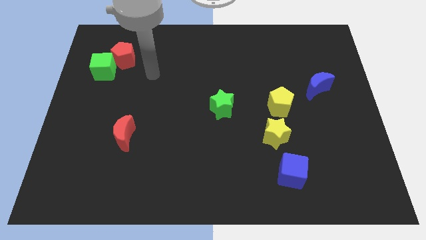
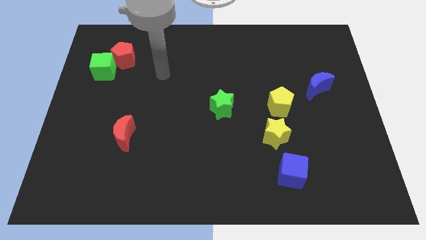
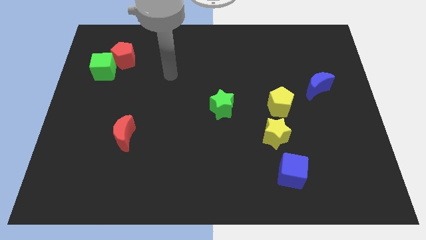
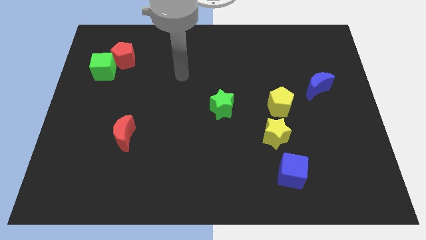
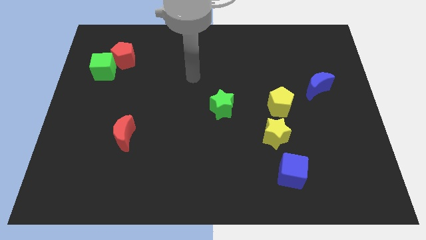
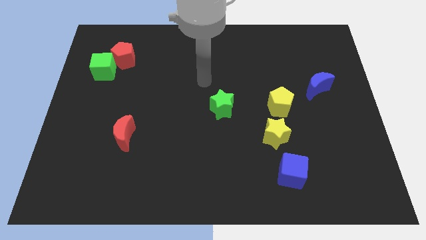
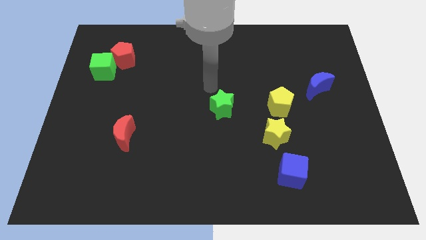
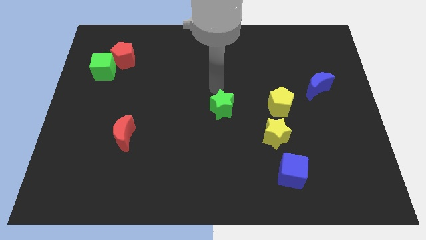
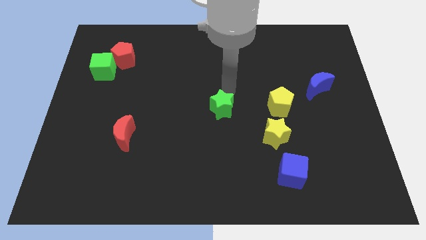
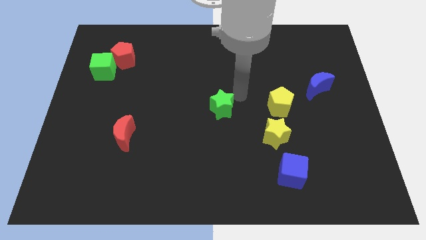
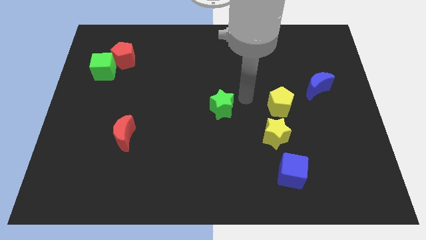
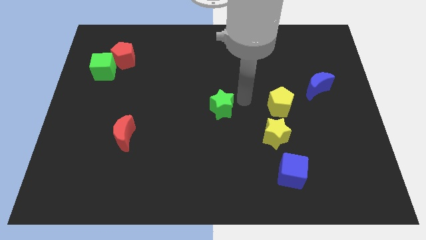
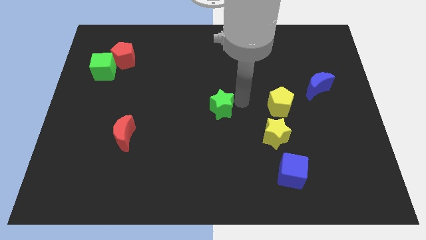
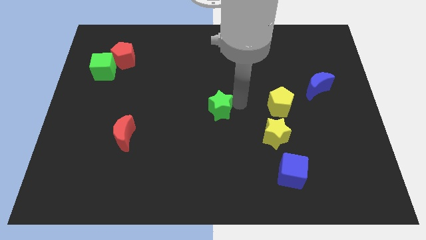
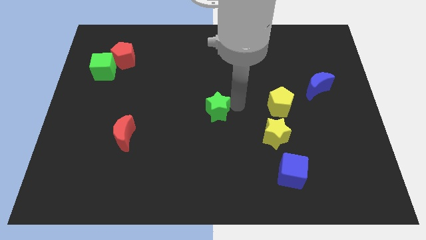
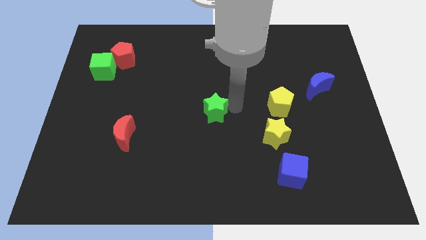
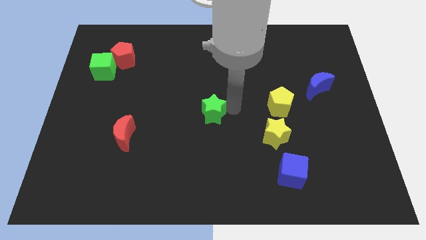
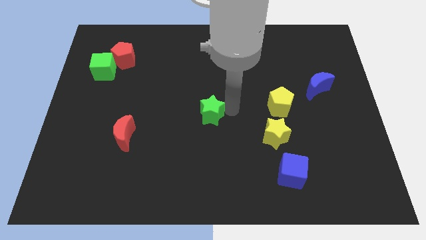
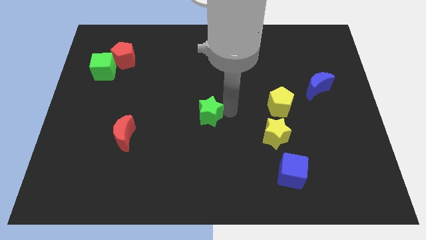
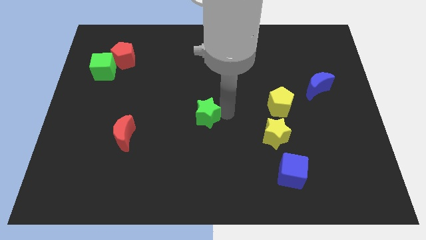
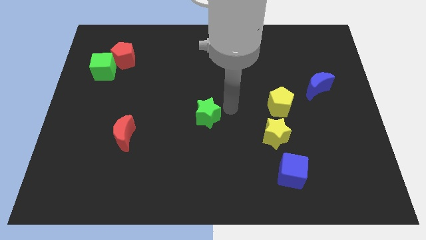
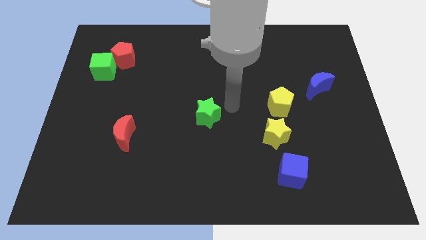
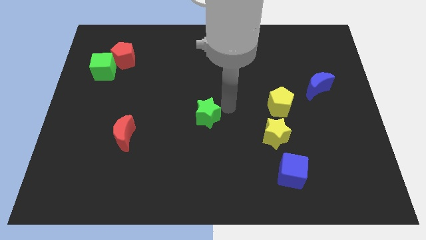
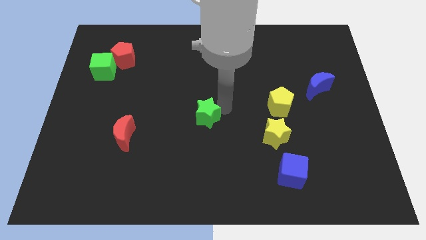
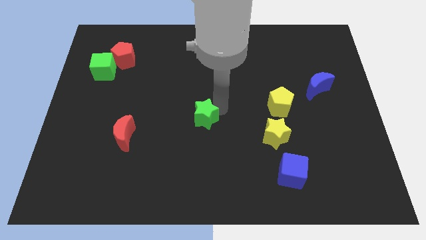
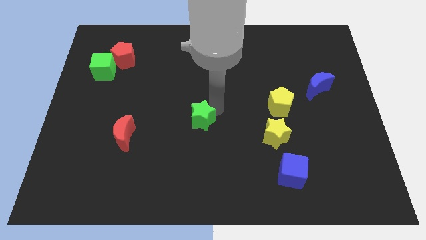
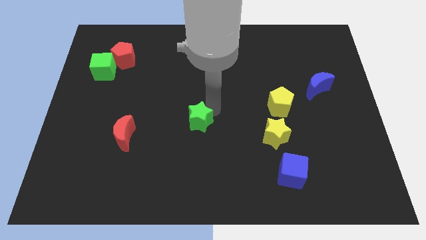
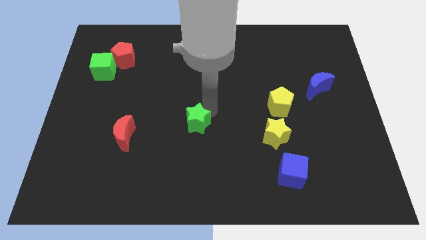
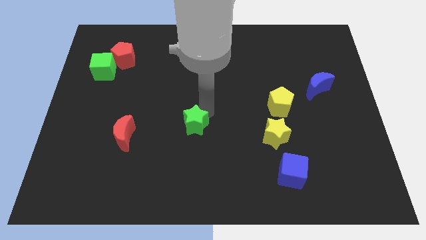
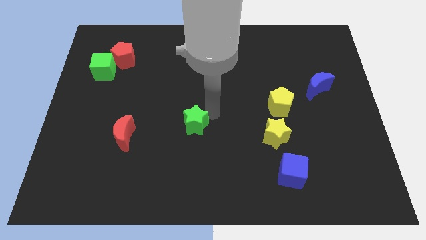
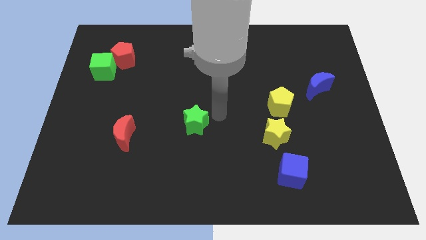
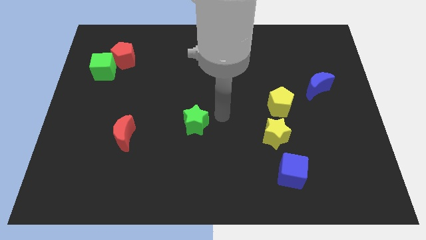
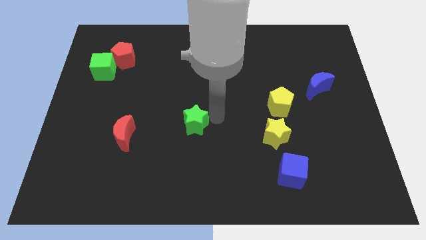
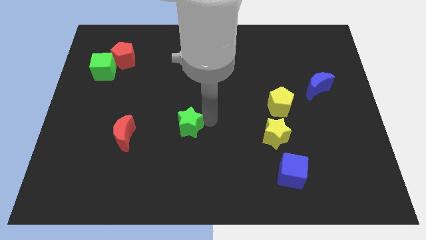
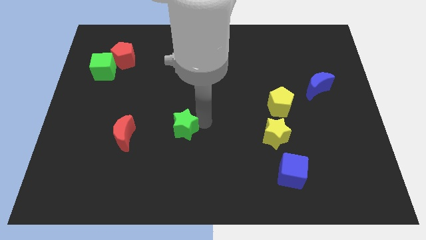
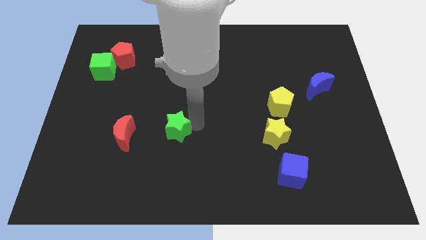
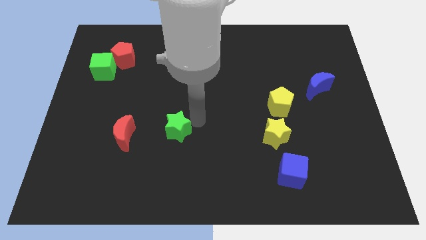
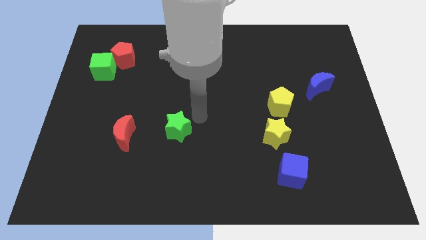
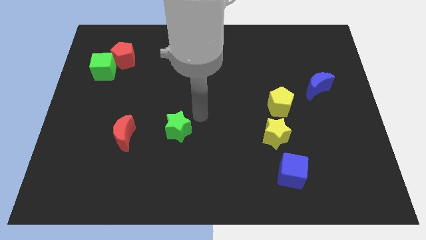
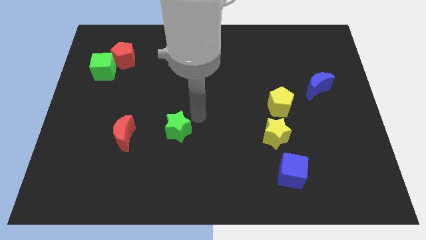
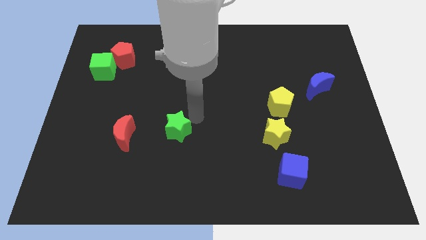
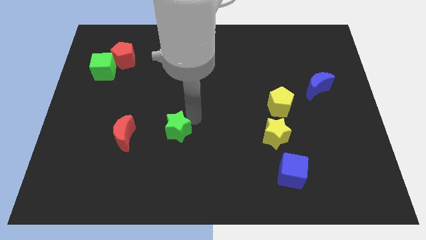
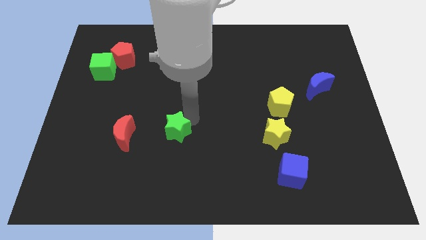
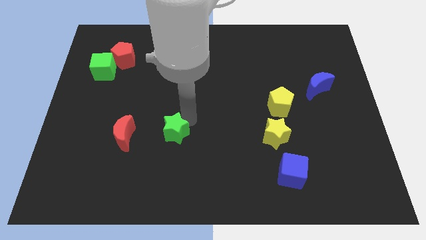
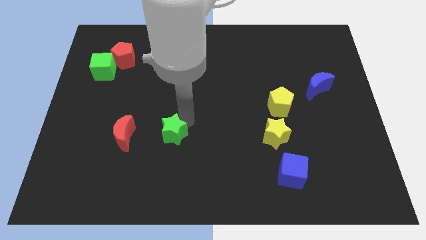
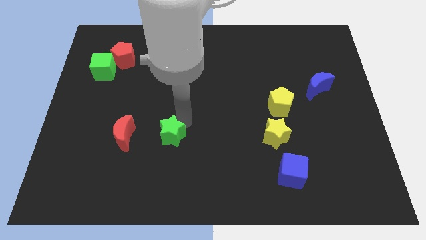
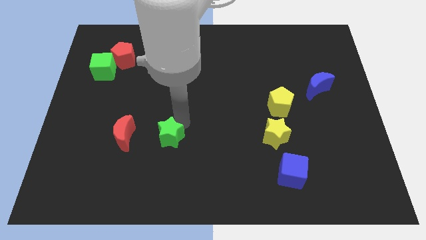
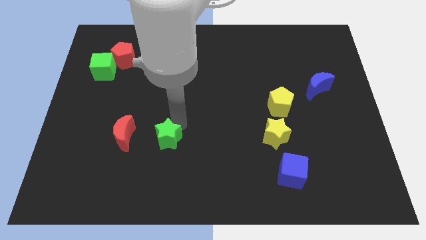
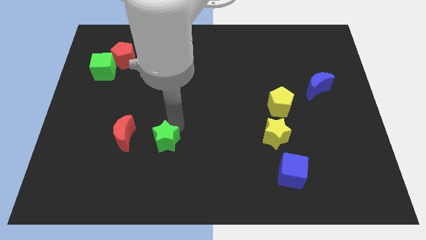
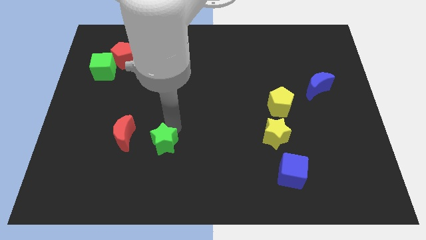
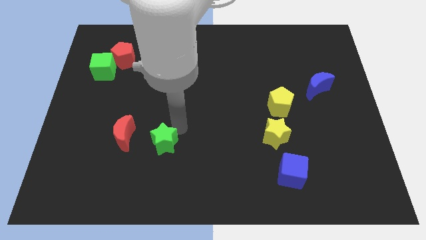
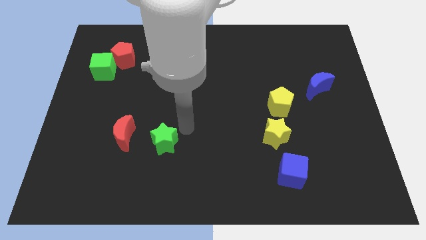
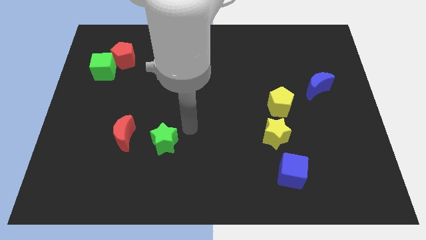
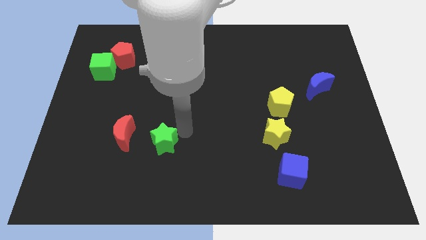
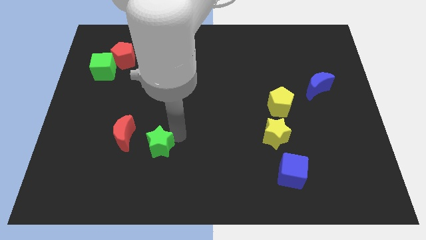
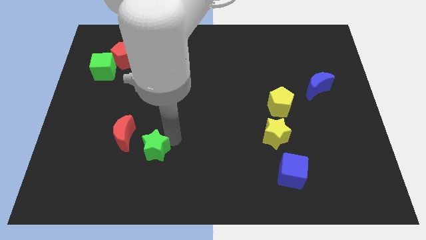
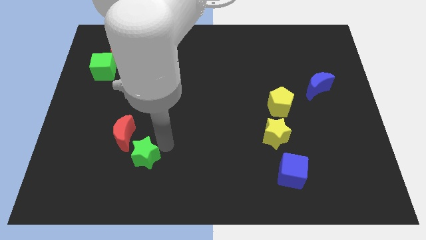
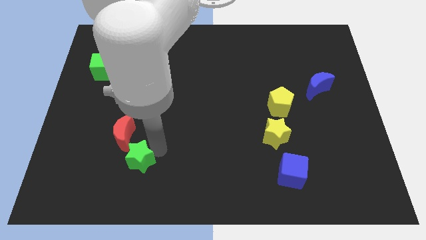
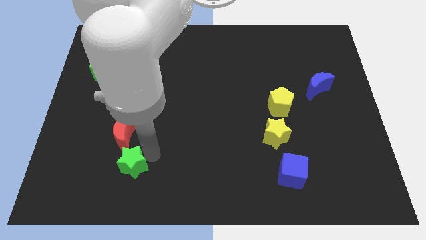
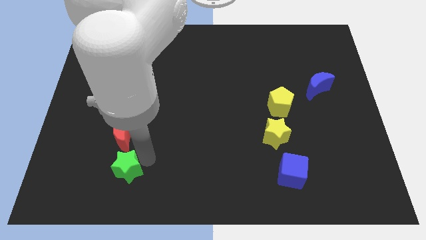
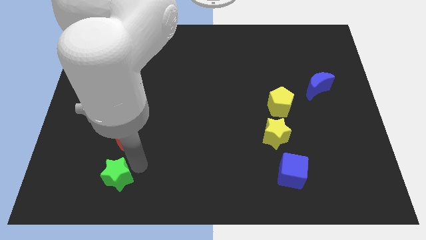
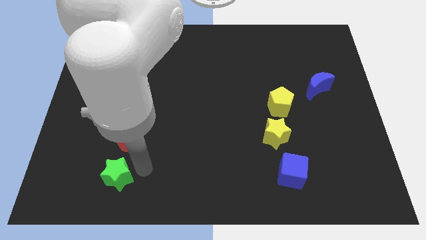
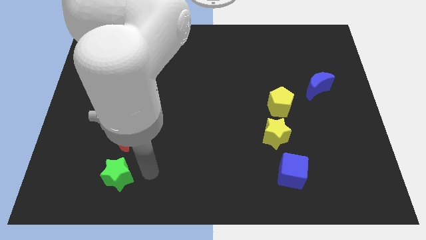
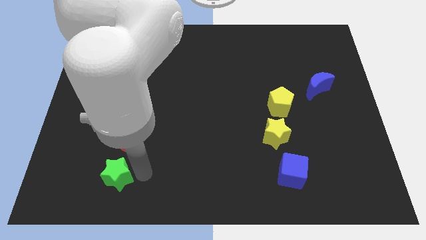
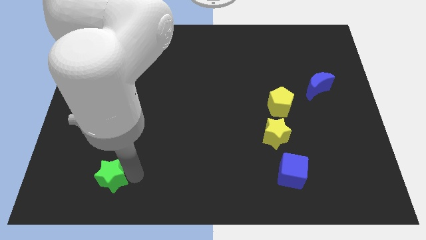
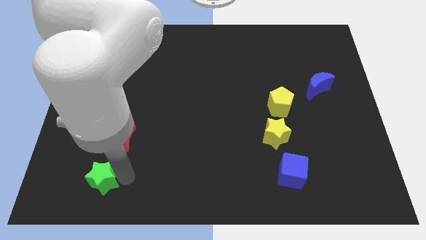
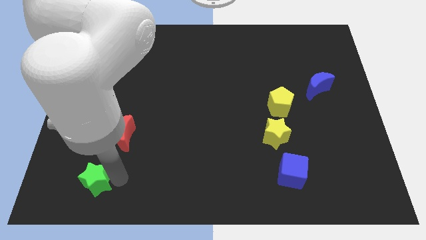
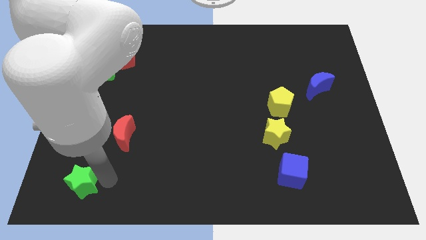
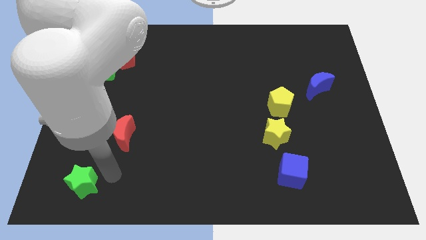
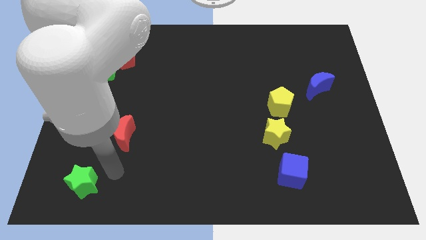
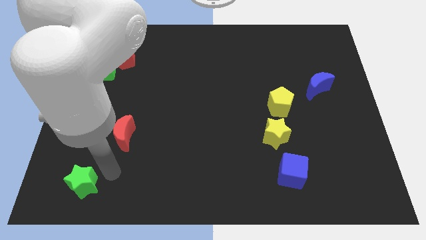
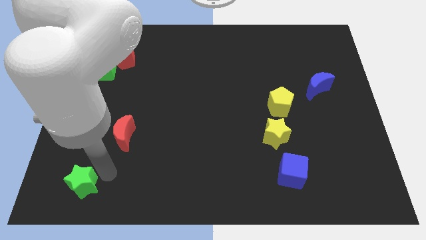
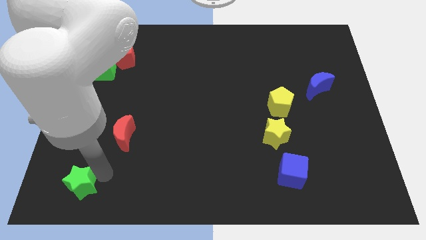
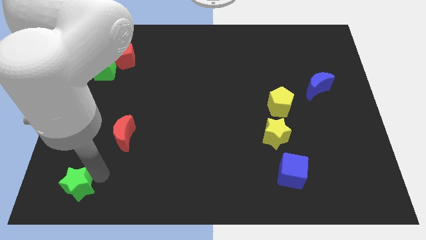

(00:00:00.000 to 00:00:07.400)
put the green star to the bottom left corner
